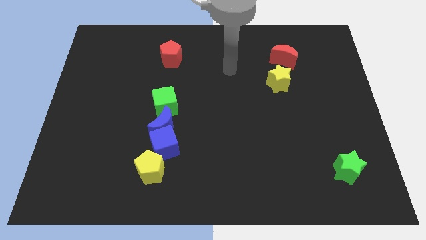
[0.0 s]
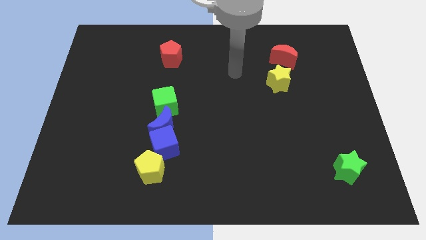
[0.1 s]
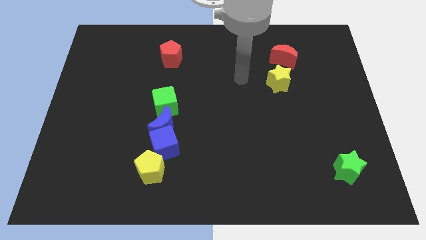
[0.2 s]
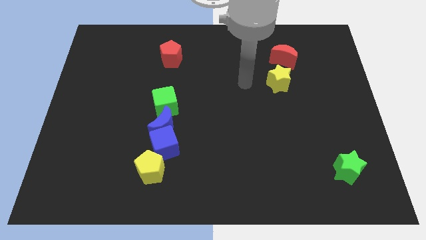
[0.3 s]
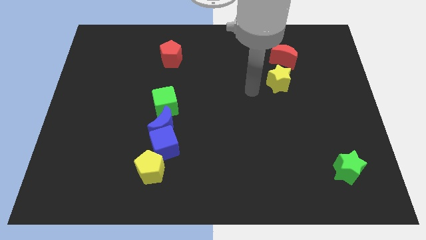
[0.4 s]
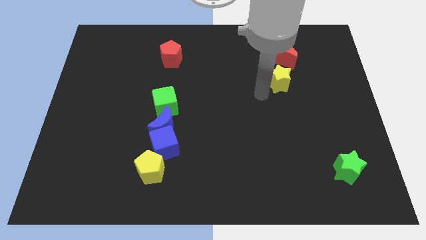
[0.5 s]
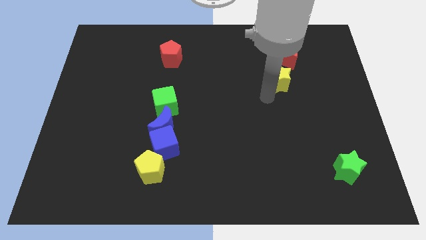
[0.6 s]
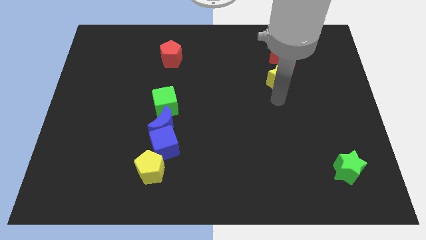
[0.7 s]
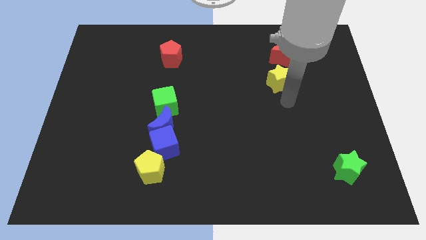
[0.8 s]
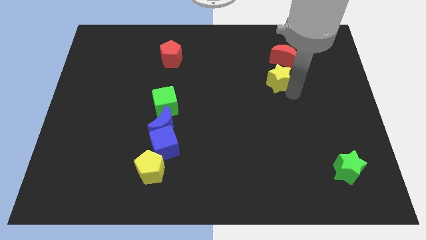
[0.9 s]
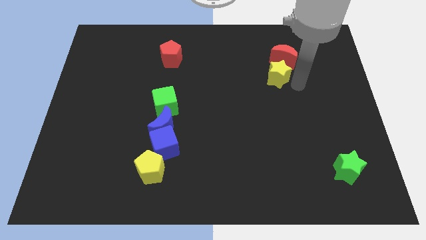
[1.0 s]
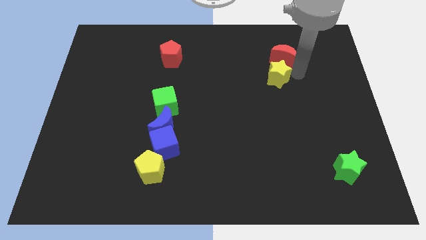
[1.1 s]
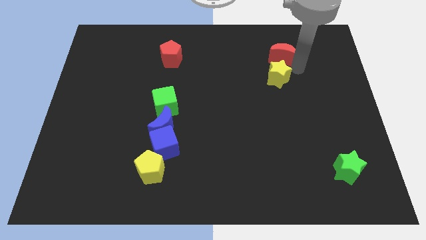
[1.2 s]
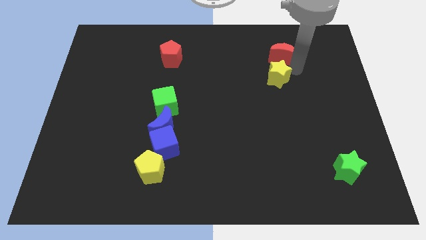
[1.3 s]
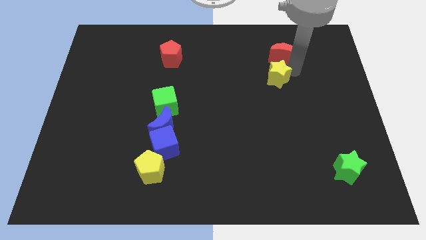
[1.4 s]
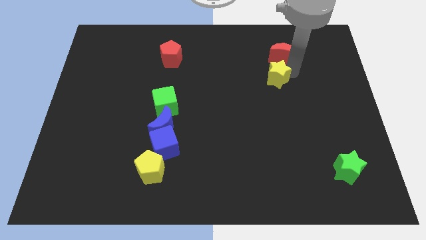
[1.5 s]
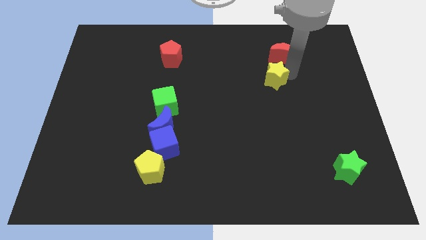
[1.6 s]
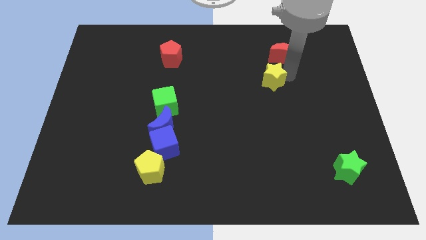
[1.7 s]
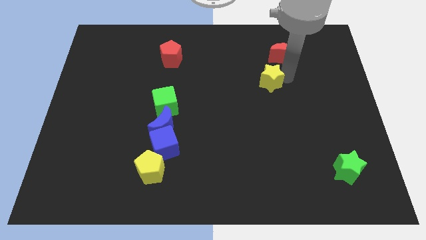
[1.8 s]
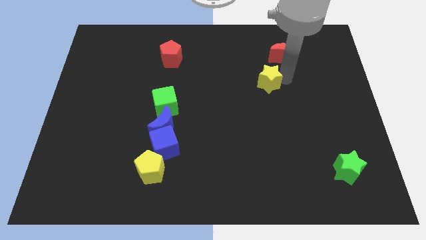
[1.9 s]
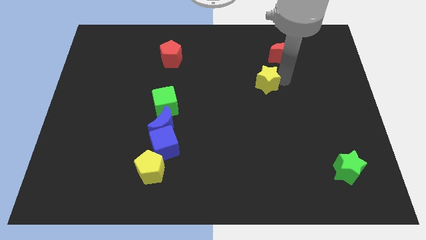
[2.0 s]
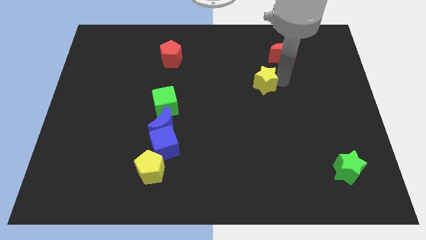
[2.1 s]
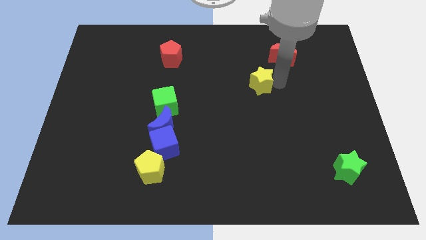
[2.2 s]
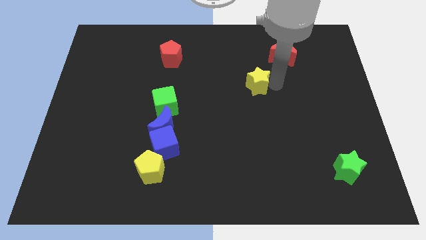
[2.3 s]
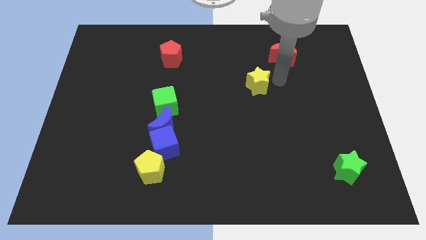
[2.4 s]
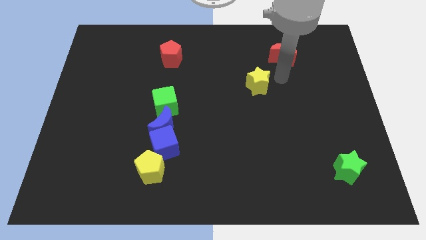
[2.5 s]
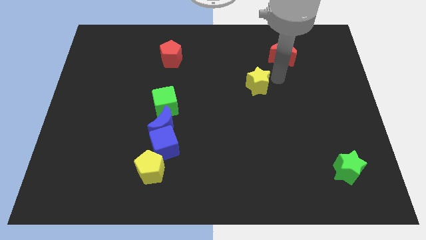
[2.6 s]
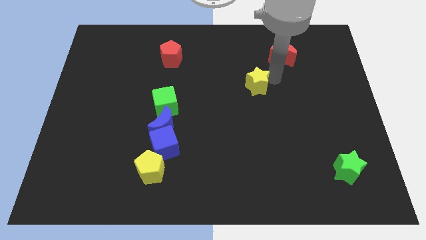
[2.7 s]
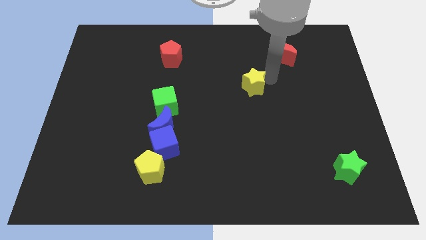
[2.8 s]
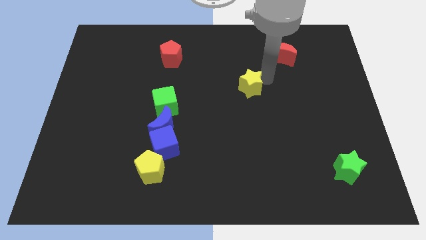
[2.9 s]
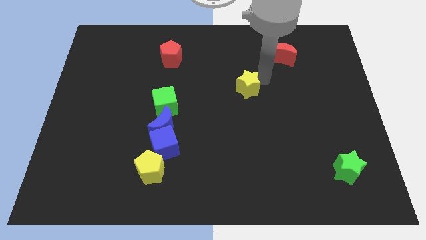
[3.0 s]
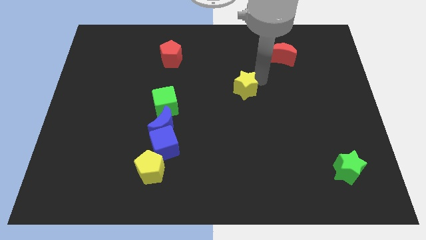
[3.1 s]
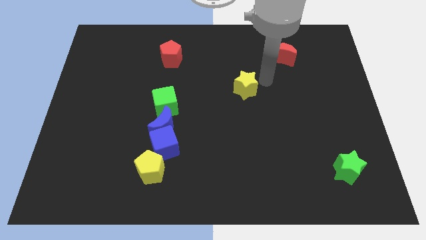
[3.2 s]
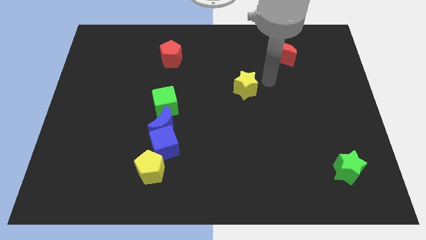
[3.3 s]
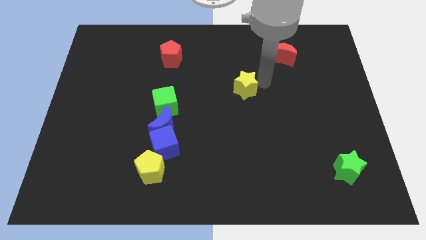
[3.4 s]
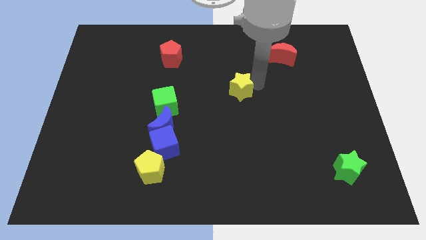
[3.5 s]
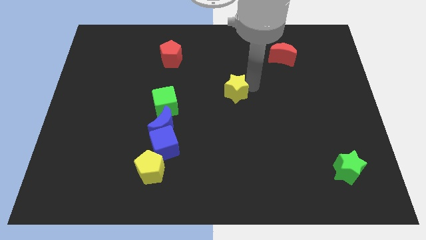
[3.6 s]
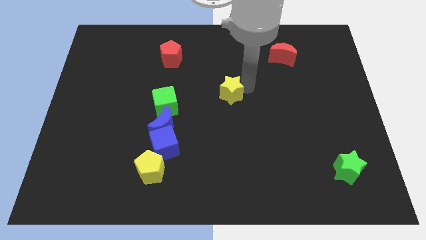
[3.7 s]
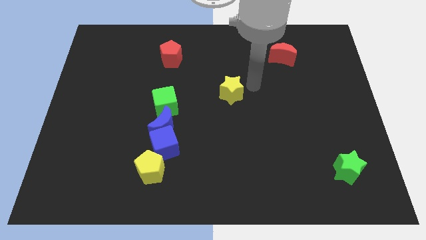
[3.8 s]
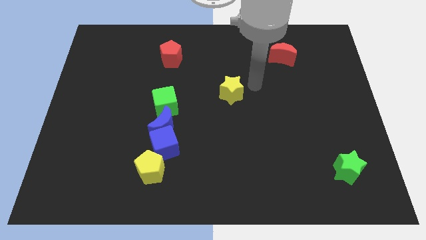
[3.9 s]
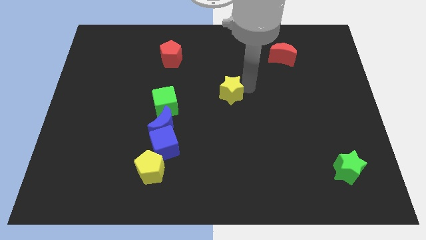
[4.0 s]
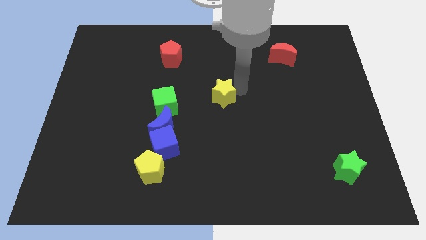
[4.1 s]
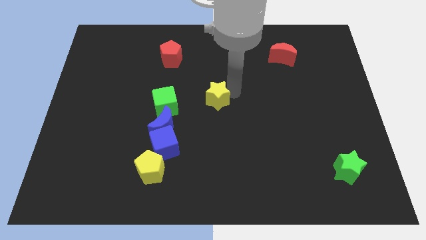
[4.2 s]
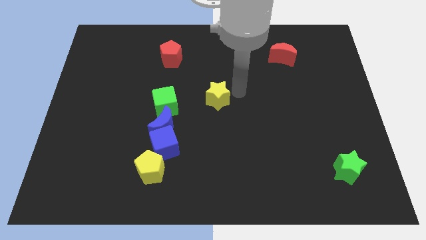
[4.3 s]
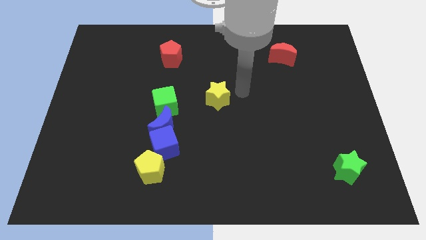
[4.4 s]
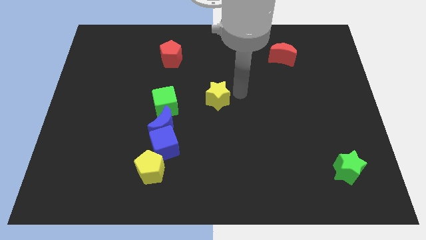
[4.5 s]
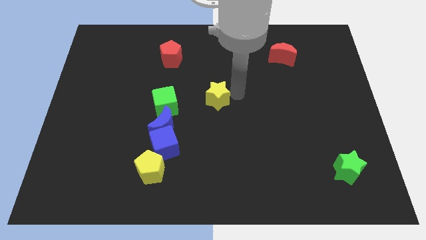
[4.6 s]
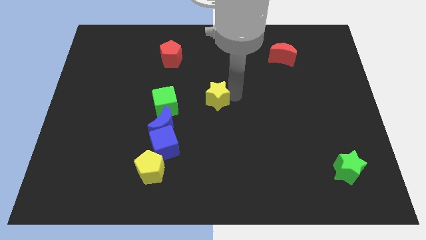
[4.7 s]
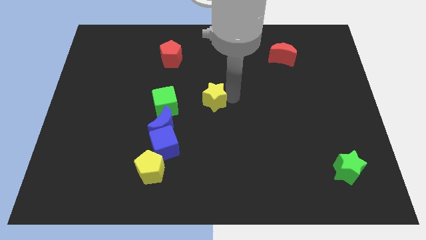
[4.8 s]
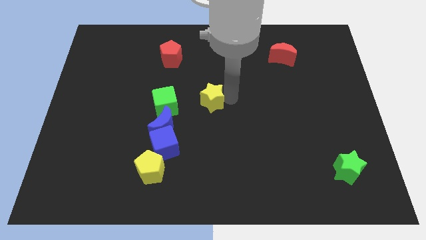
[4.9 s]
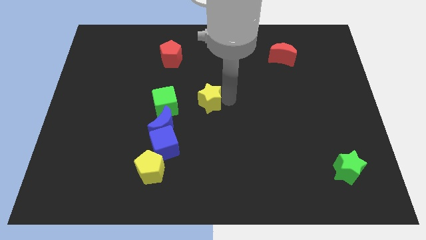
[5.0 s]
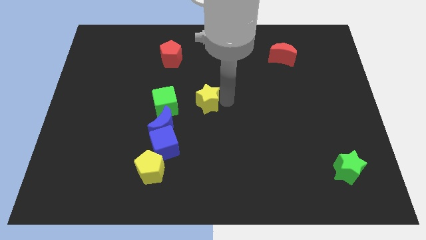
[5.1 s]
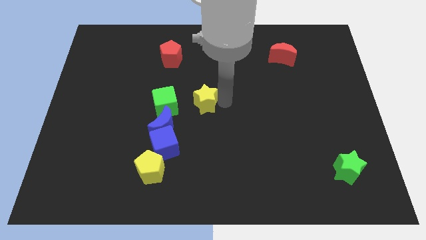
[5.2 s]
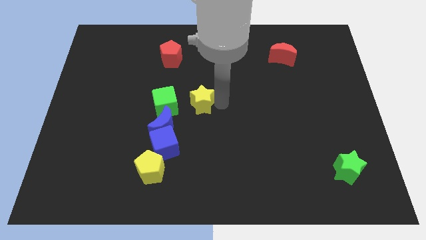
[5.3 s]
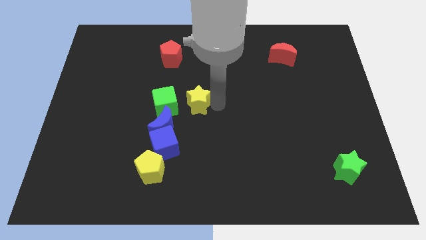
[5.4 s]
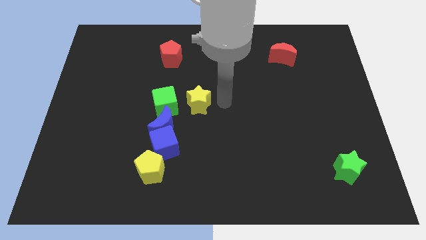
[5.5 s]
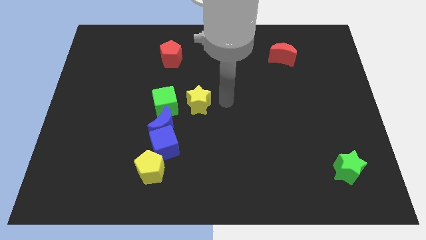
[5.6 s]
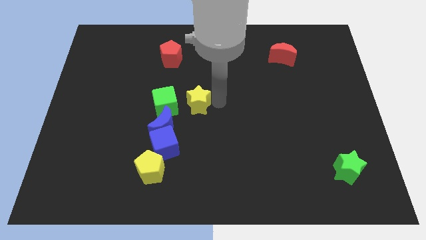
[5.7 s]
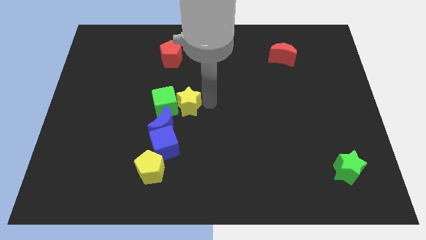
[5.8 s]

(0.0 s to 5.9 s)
slide the yellow star close to the green cube

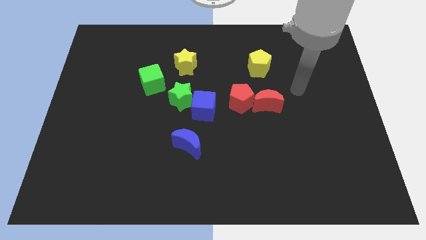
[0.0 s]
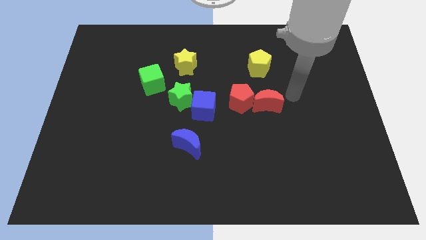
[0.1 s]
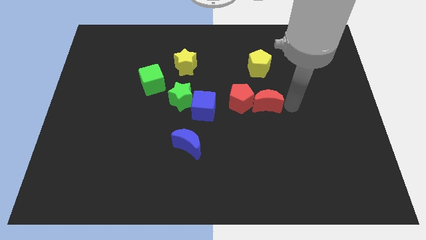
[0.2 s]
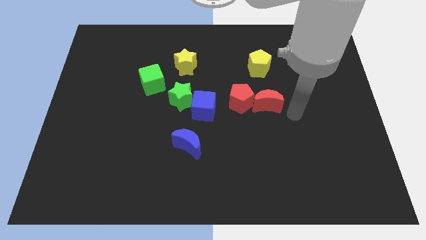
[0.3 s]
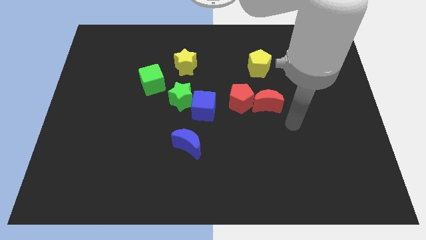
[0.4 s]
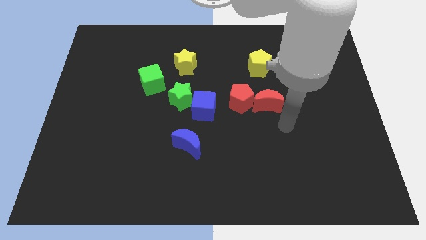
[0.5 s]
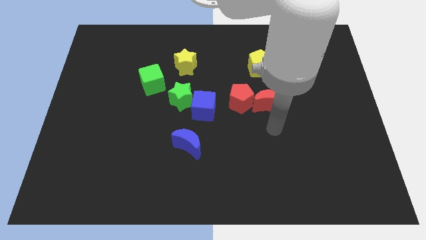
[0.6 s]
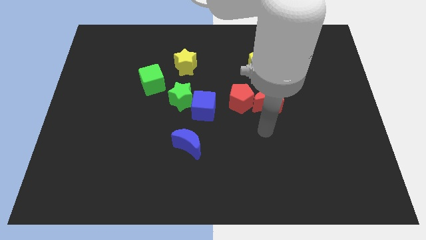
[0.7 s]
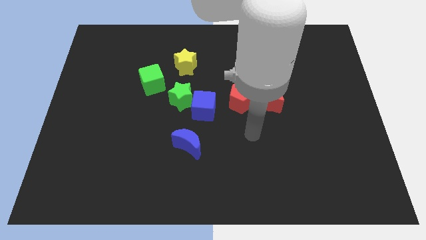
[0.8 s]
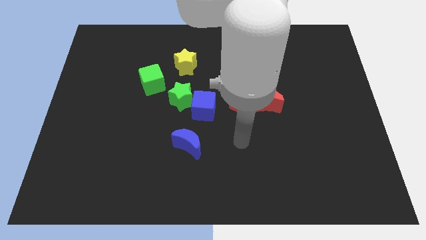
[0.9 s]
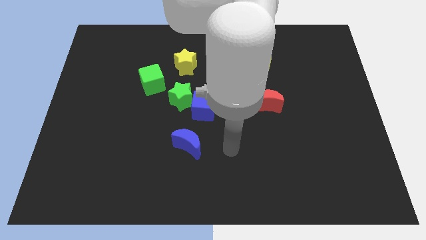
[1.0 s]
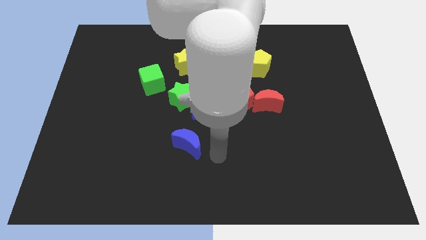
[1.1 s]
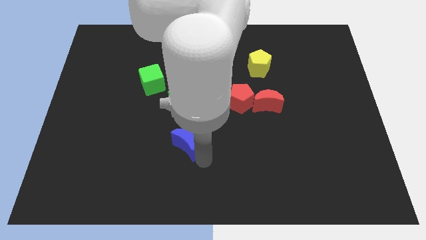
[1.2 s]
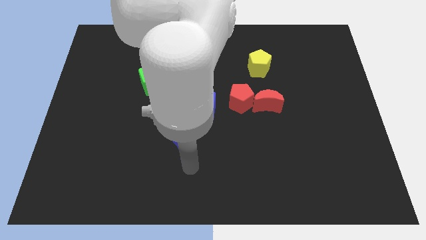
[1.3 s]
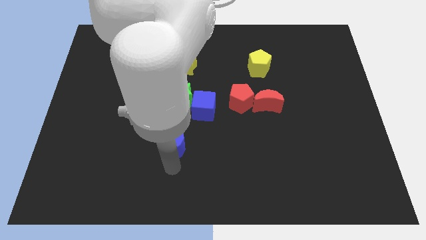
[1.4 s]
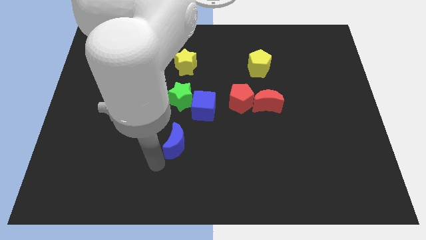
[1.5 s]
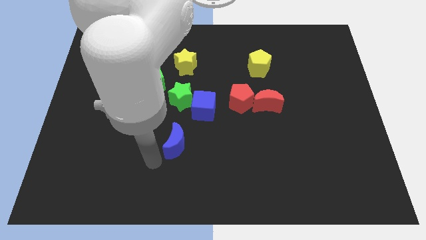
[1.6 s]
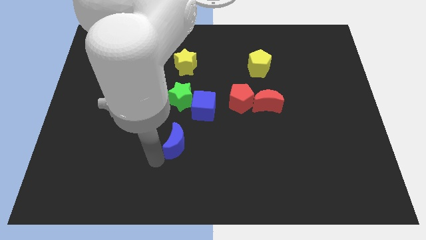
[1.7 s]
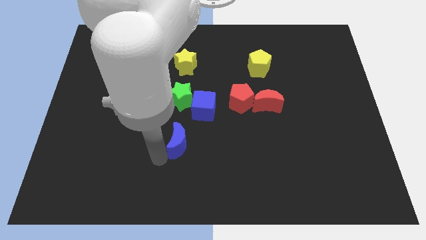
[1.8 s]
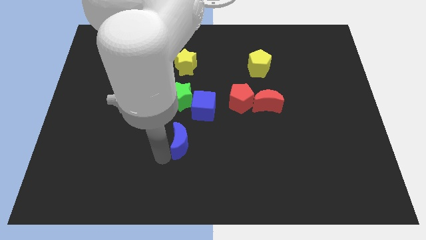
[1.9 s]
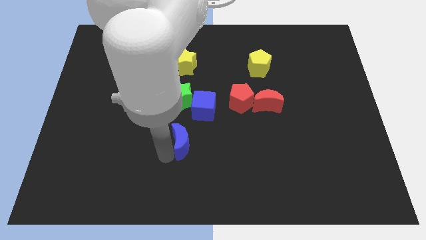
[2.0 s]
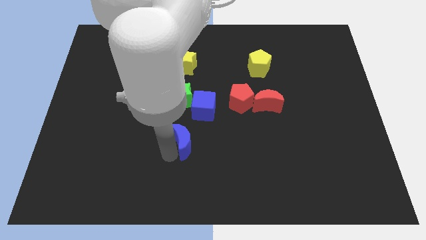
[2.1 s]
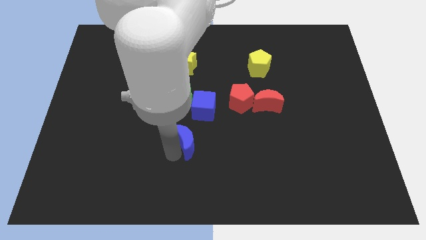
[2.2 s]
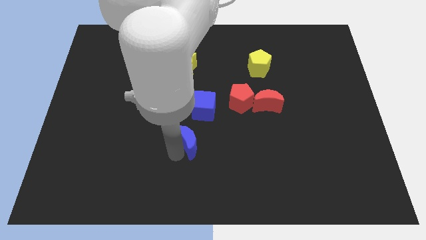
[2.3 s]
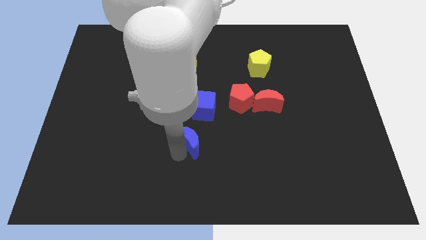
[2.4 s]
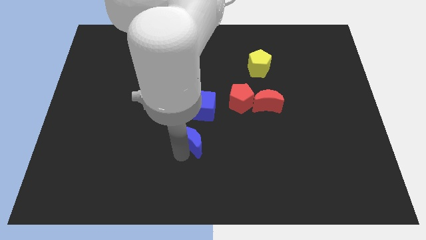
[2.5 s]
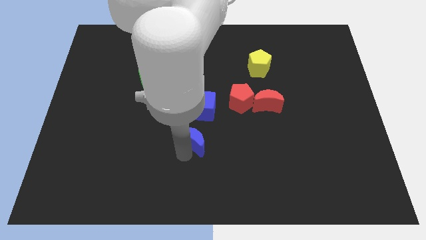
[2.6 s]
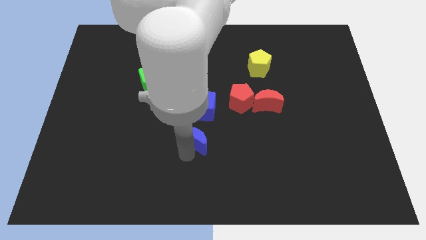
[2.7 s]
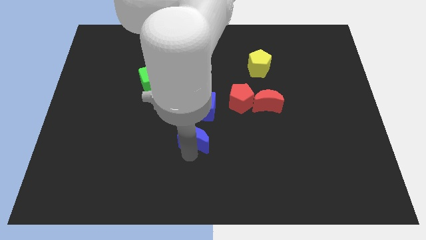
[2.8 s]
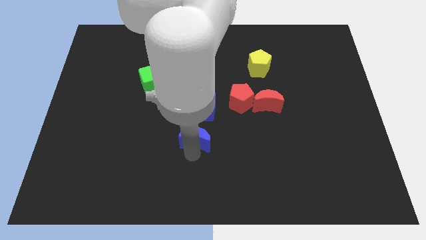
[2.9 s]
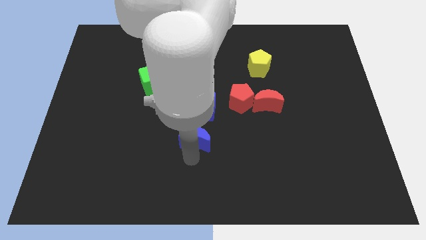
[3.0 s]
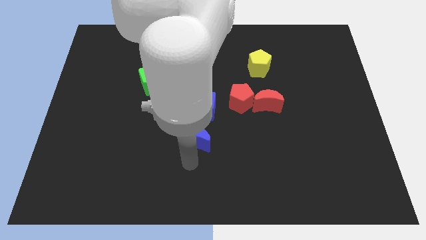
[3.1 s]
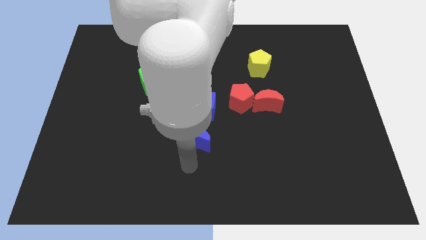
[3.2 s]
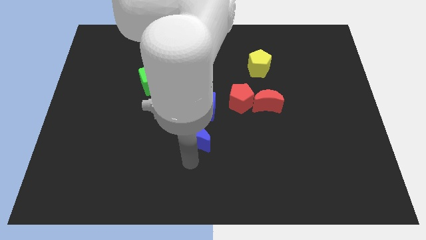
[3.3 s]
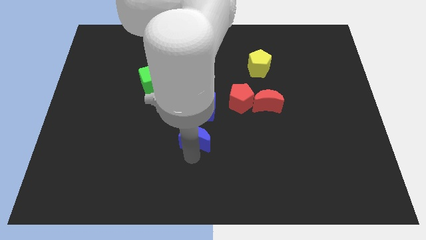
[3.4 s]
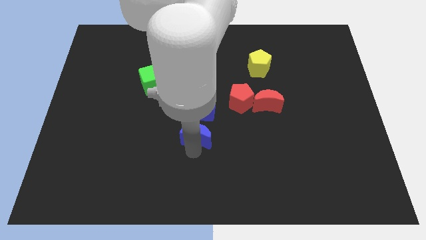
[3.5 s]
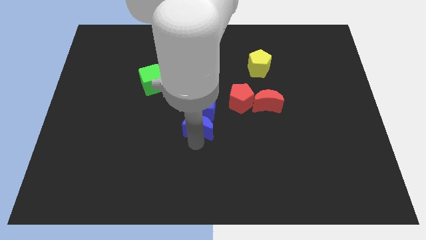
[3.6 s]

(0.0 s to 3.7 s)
put the blue moon next to the blue cube
